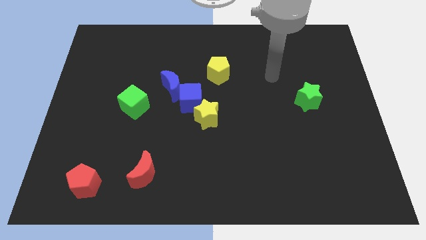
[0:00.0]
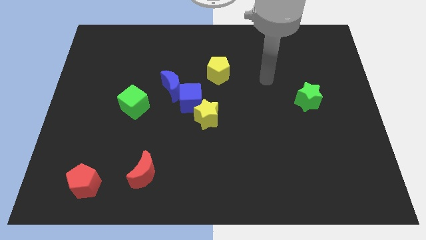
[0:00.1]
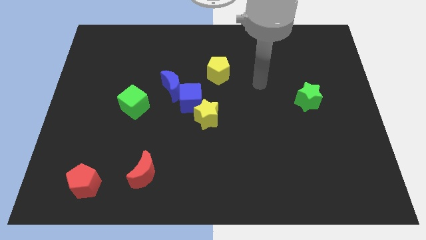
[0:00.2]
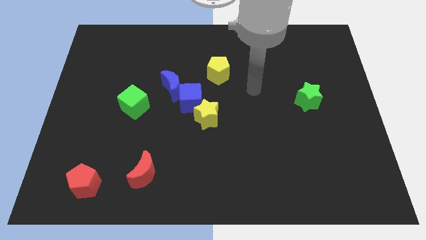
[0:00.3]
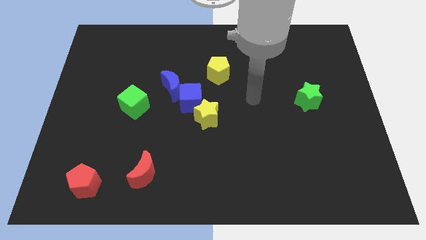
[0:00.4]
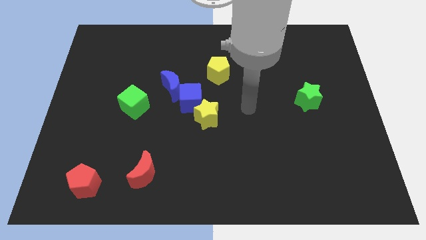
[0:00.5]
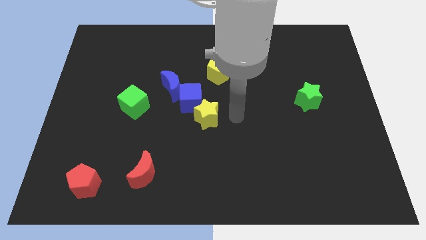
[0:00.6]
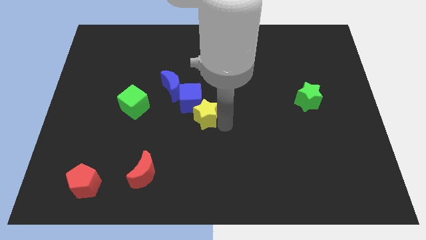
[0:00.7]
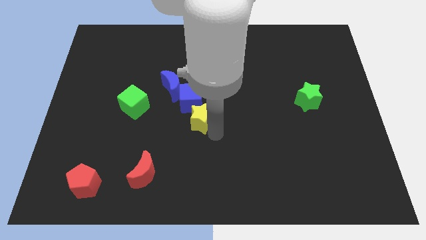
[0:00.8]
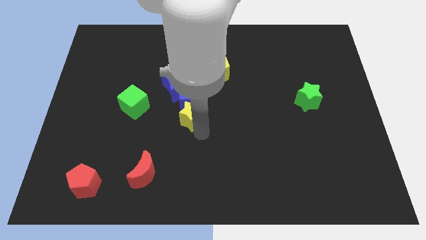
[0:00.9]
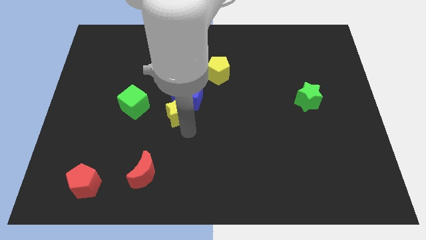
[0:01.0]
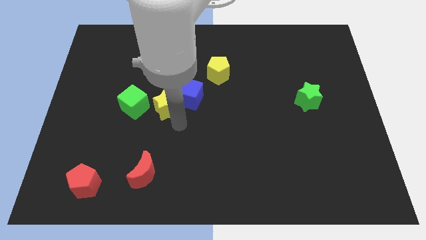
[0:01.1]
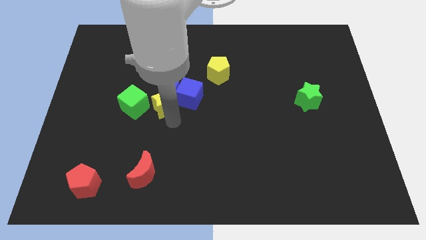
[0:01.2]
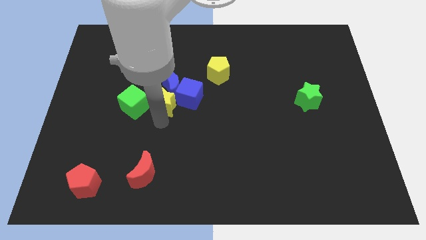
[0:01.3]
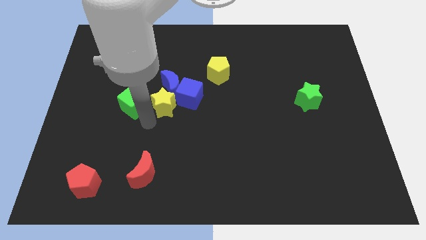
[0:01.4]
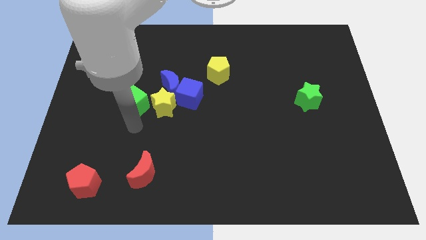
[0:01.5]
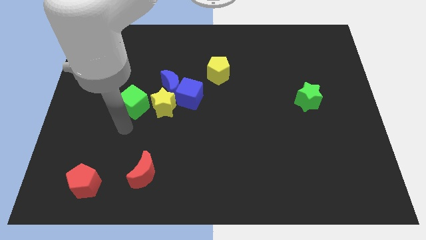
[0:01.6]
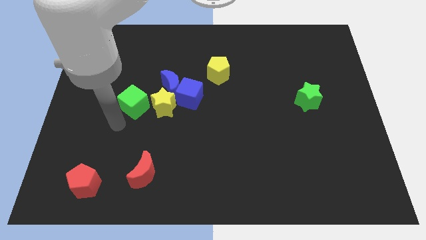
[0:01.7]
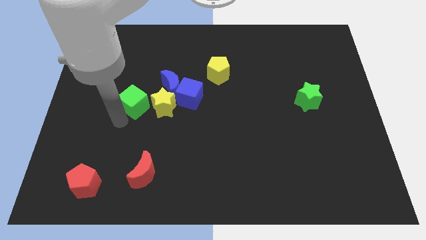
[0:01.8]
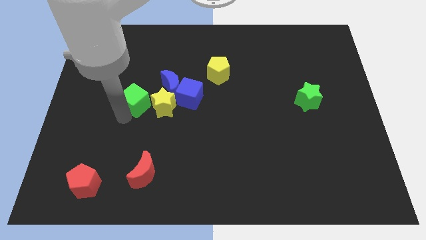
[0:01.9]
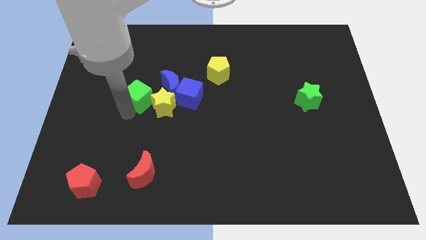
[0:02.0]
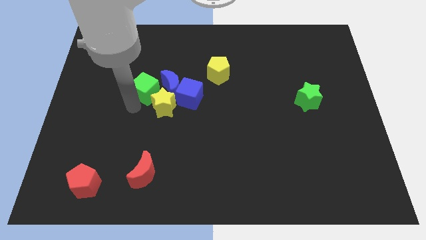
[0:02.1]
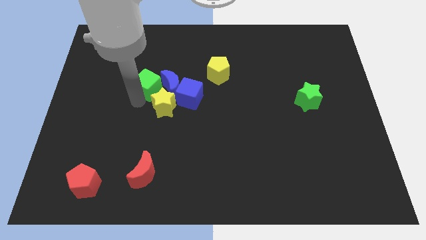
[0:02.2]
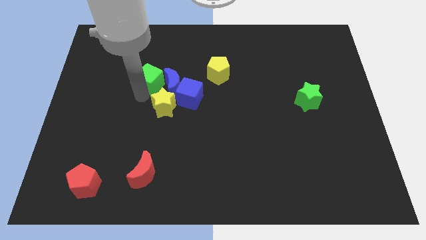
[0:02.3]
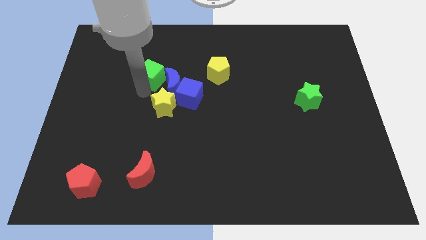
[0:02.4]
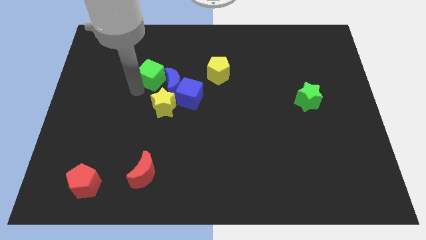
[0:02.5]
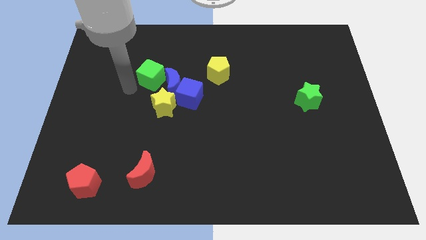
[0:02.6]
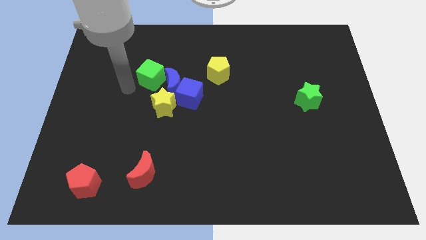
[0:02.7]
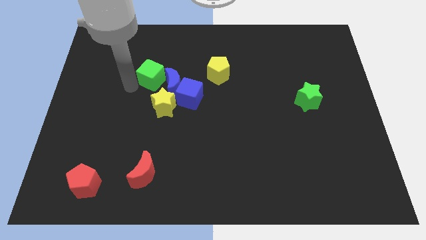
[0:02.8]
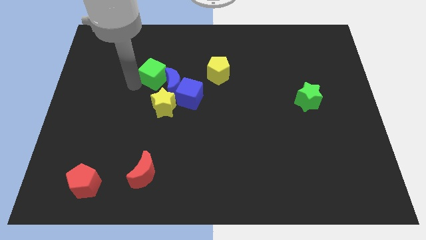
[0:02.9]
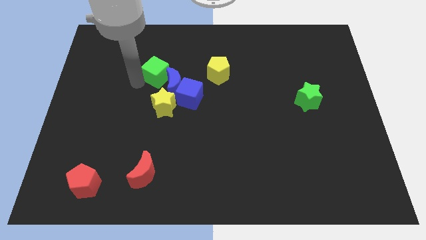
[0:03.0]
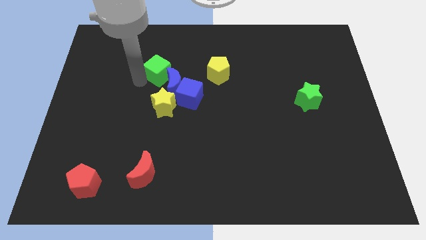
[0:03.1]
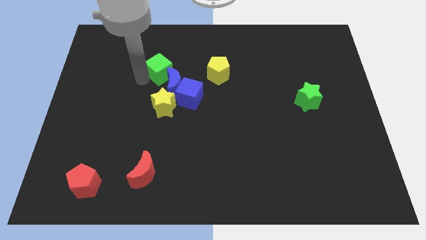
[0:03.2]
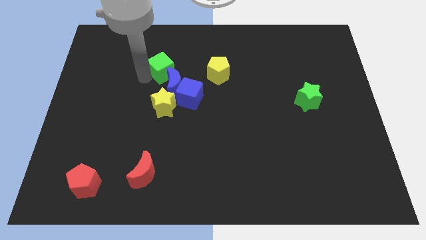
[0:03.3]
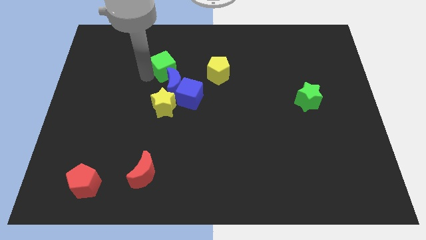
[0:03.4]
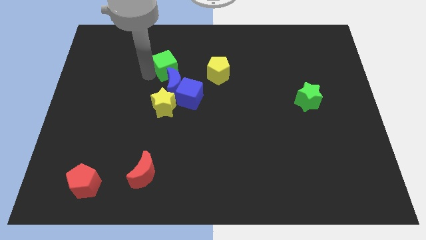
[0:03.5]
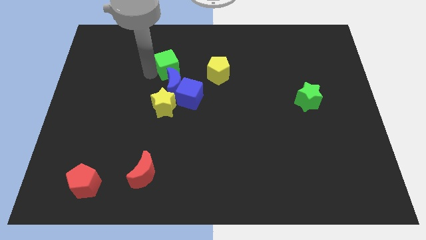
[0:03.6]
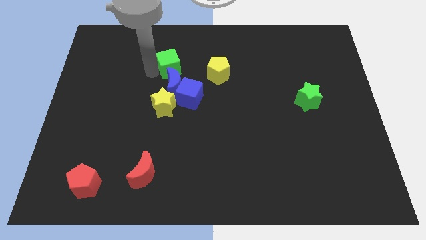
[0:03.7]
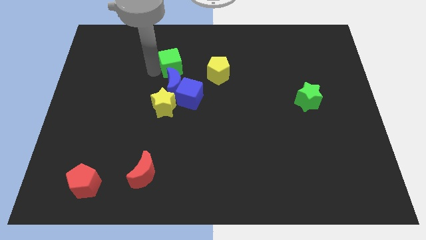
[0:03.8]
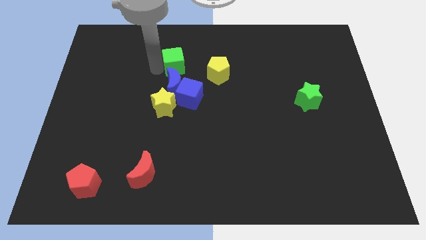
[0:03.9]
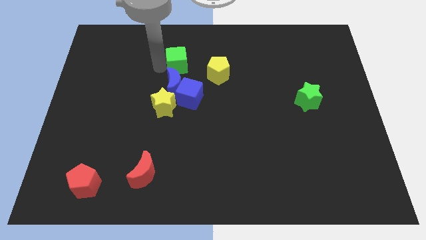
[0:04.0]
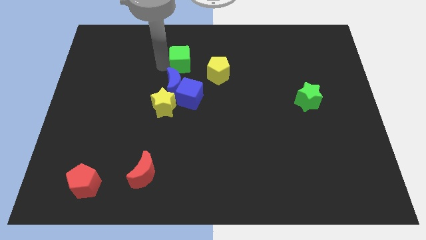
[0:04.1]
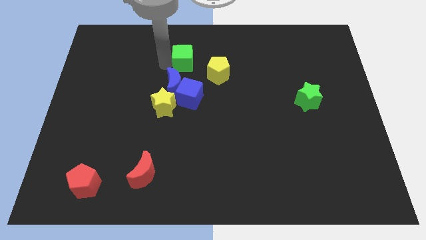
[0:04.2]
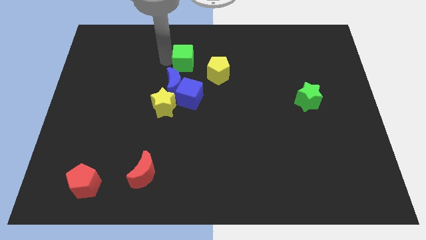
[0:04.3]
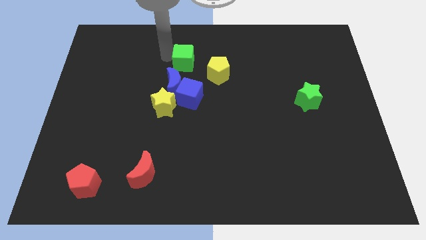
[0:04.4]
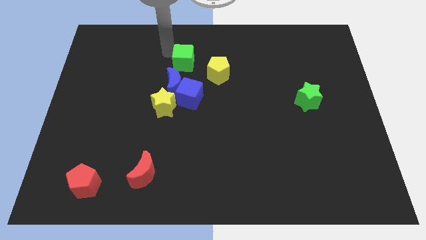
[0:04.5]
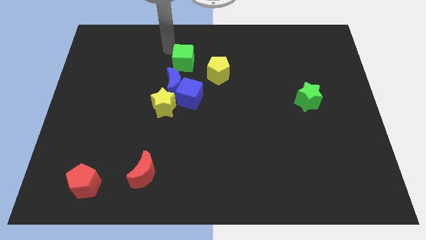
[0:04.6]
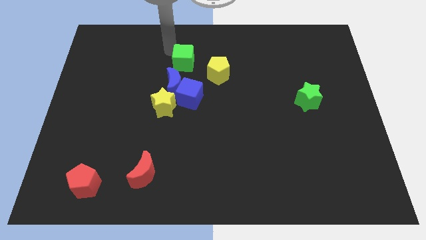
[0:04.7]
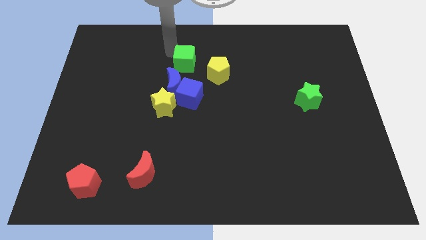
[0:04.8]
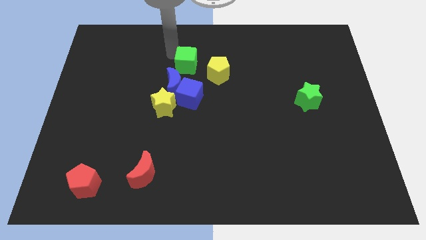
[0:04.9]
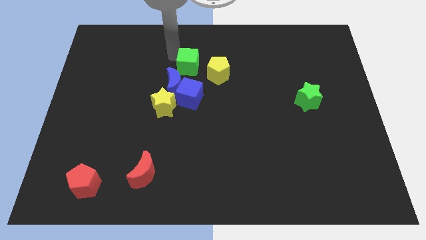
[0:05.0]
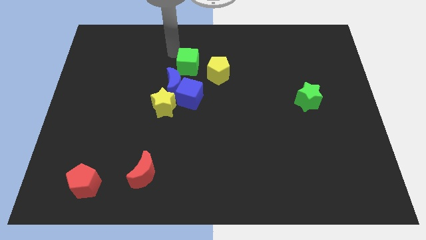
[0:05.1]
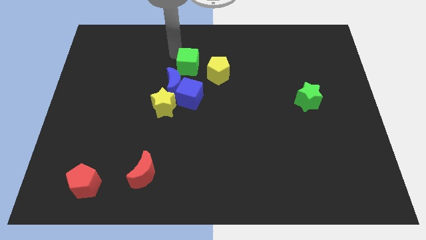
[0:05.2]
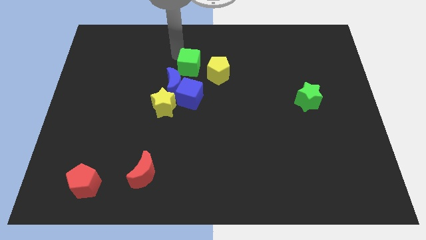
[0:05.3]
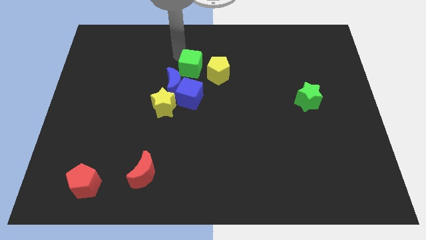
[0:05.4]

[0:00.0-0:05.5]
move the green cube to the center of the board

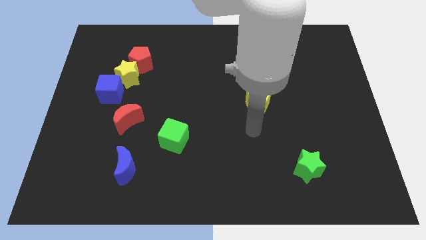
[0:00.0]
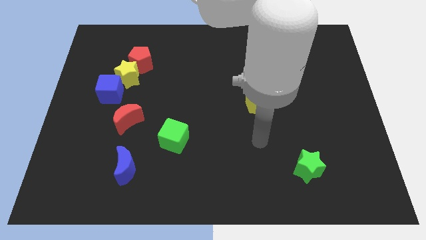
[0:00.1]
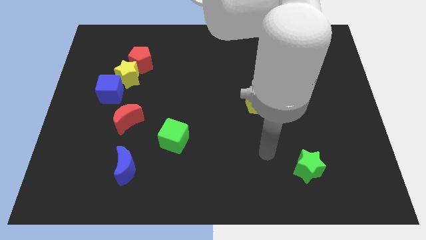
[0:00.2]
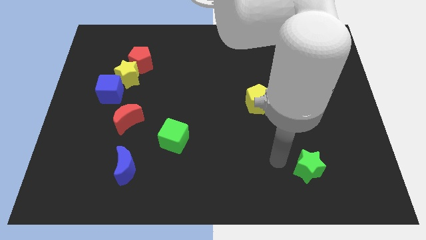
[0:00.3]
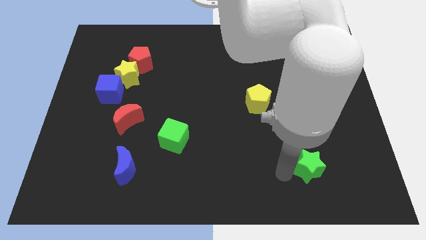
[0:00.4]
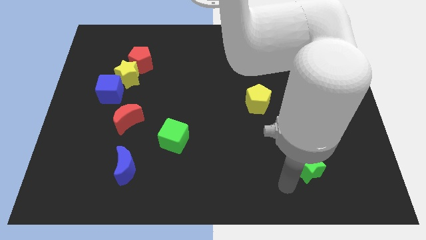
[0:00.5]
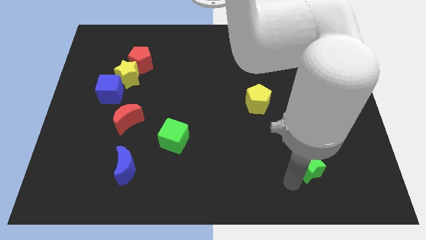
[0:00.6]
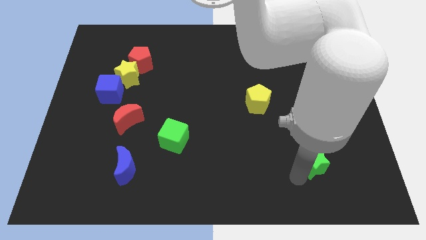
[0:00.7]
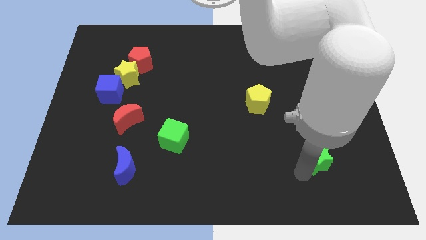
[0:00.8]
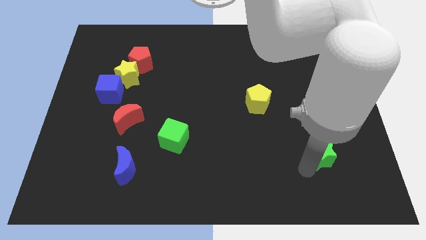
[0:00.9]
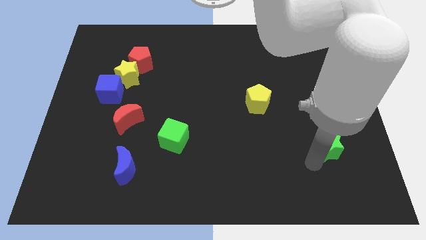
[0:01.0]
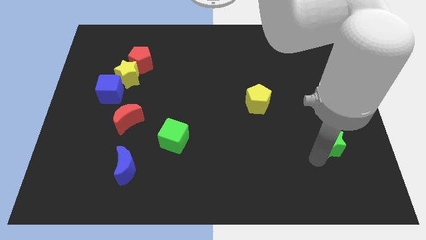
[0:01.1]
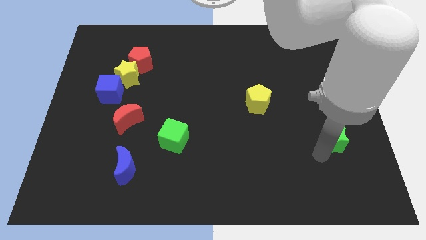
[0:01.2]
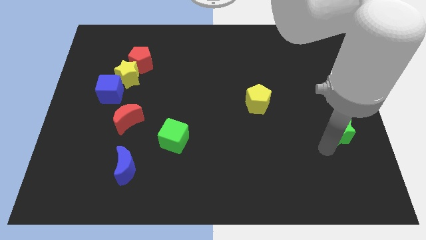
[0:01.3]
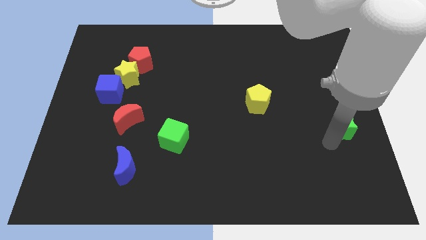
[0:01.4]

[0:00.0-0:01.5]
put the green star to the right side of the board
